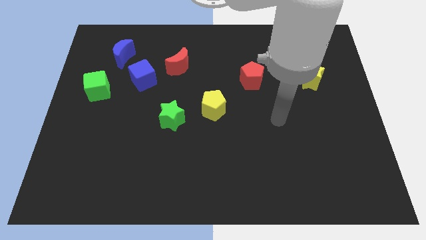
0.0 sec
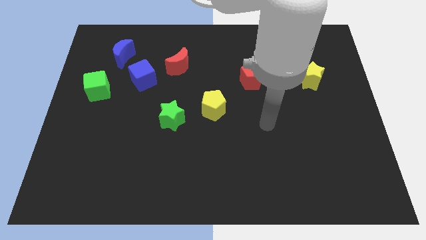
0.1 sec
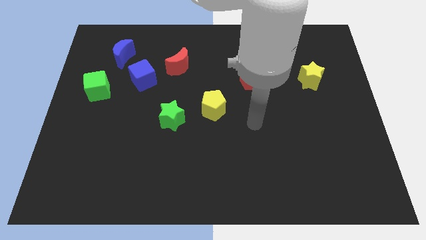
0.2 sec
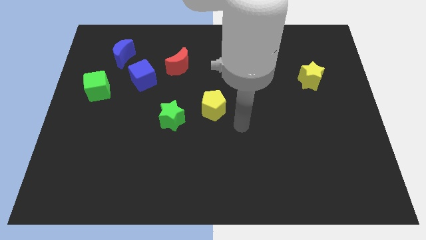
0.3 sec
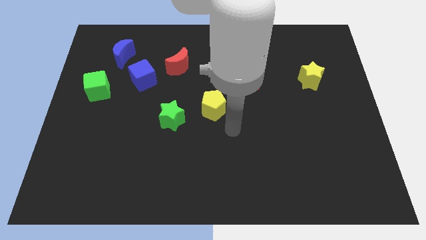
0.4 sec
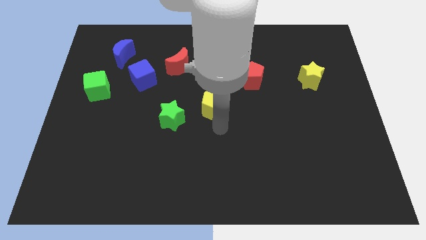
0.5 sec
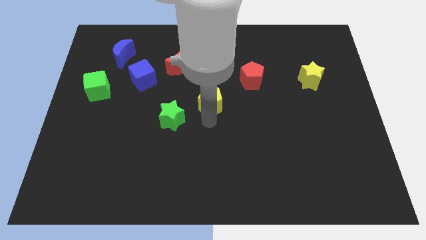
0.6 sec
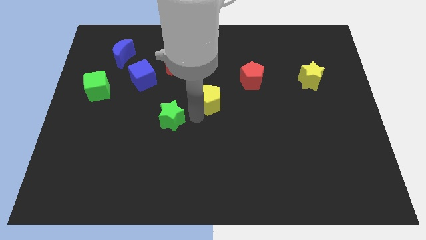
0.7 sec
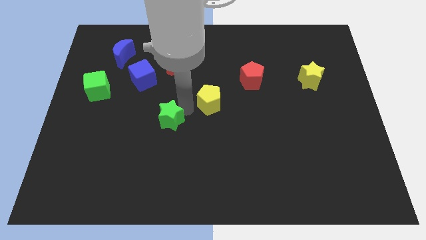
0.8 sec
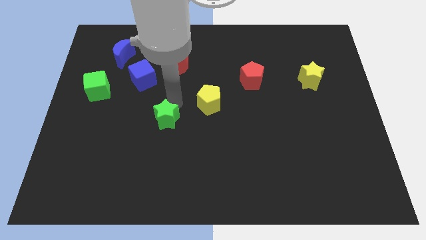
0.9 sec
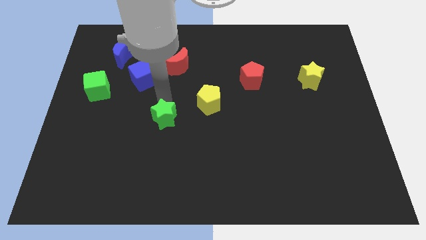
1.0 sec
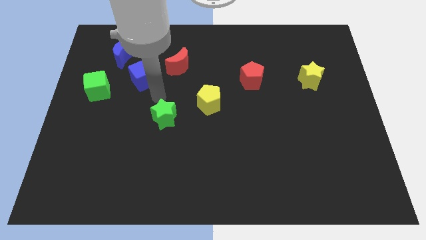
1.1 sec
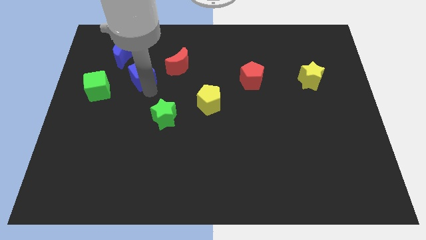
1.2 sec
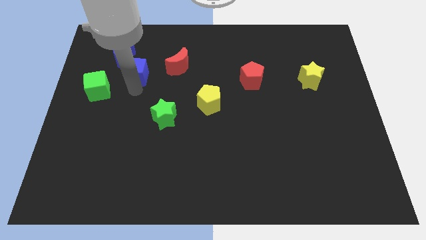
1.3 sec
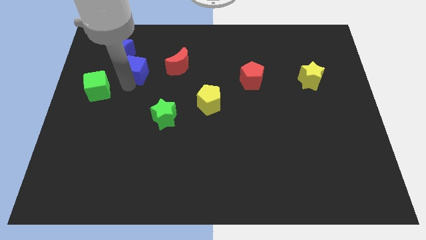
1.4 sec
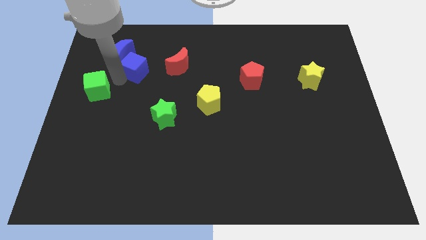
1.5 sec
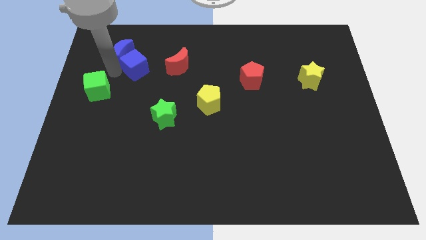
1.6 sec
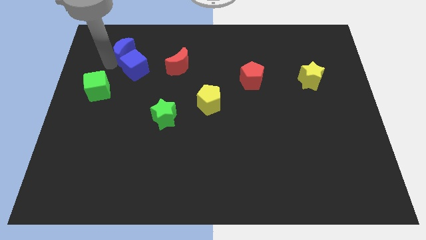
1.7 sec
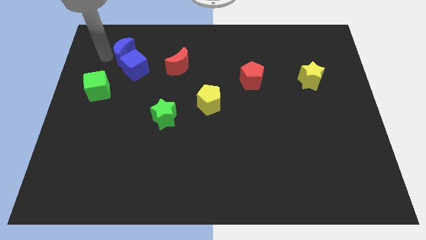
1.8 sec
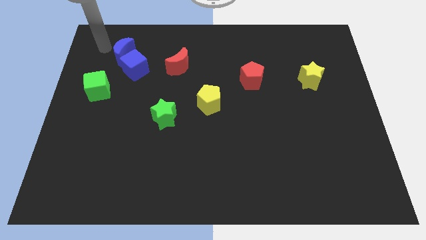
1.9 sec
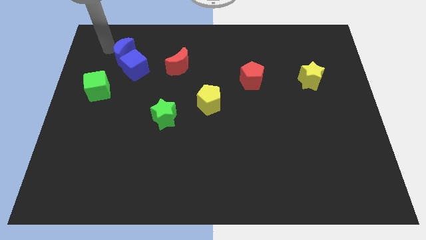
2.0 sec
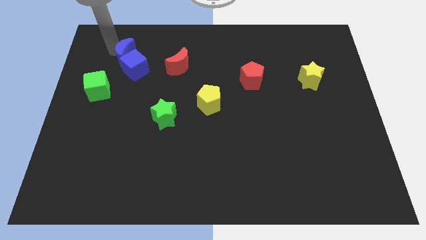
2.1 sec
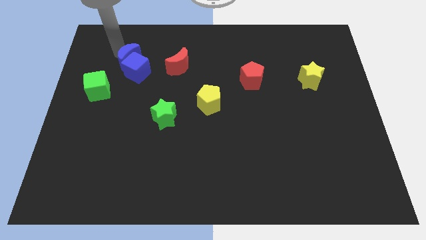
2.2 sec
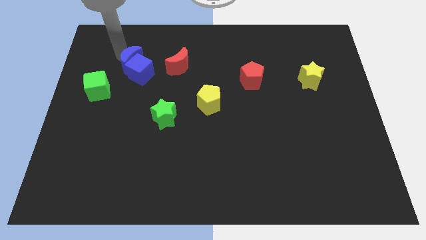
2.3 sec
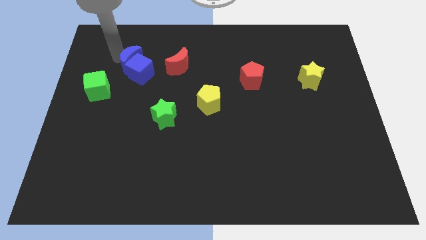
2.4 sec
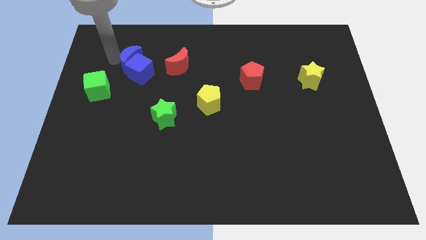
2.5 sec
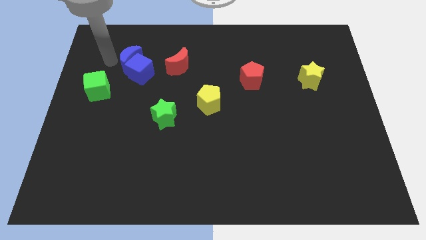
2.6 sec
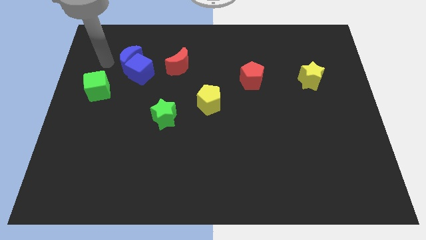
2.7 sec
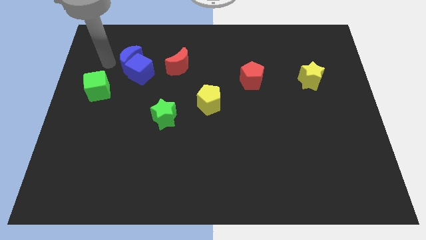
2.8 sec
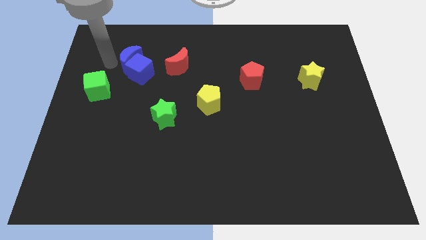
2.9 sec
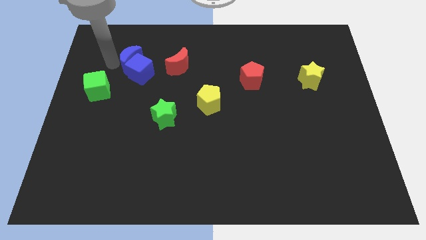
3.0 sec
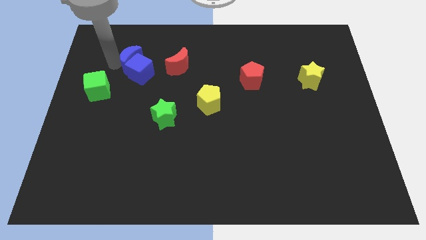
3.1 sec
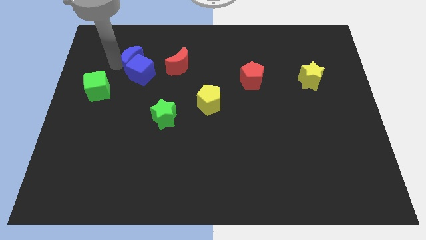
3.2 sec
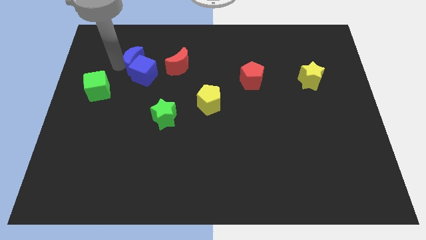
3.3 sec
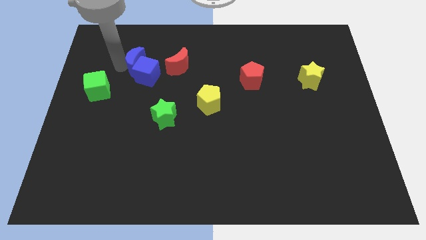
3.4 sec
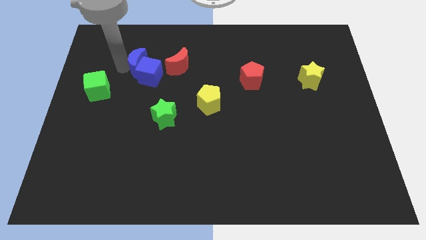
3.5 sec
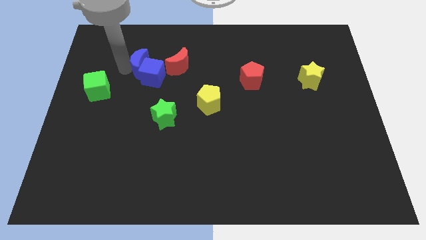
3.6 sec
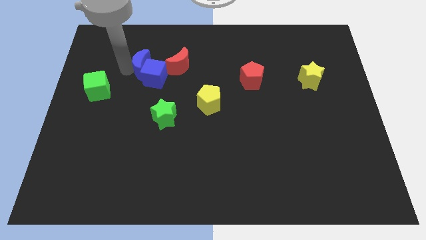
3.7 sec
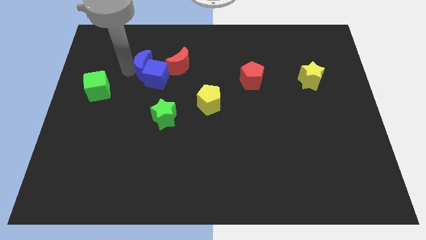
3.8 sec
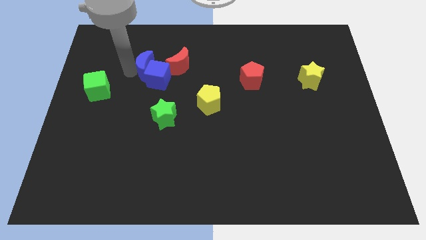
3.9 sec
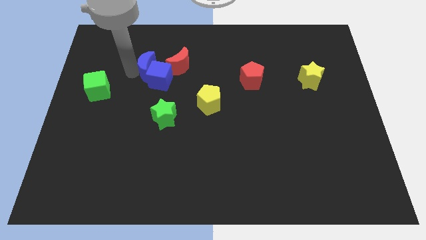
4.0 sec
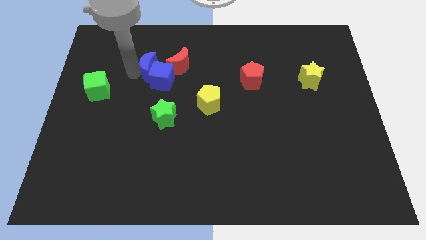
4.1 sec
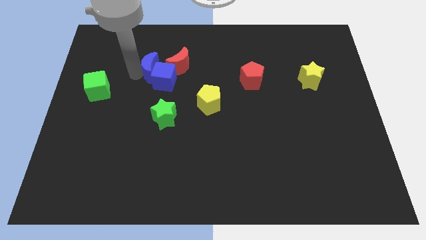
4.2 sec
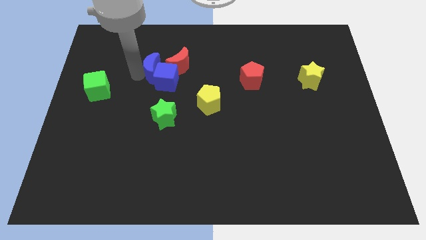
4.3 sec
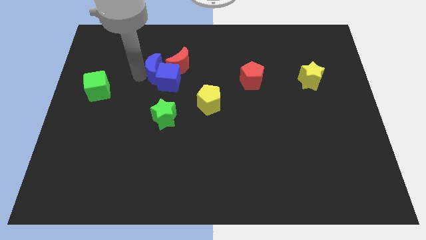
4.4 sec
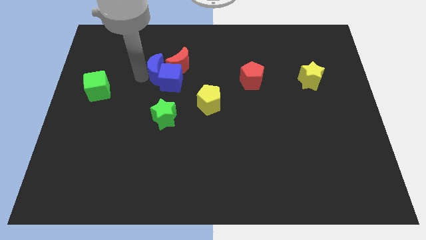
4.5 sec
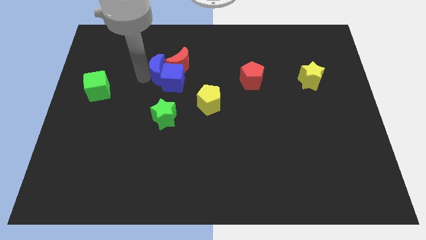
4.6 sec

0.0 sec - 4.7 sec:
move the blue moon next to the red moon

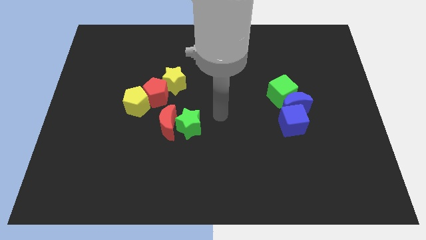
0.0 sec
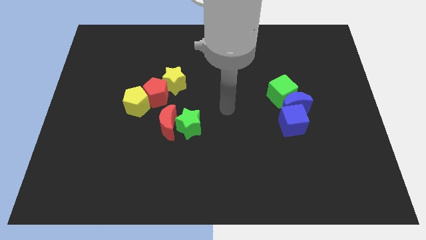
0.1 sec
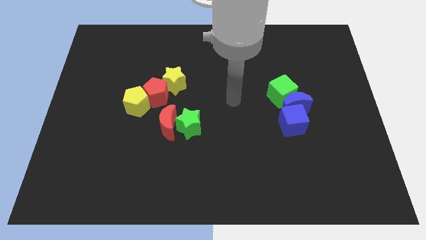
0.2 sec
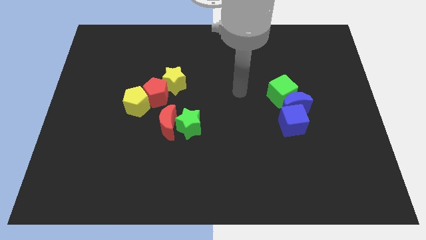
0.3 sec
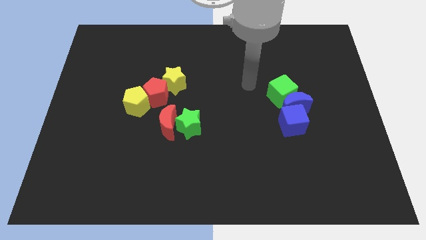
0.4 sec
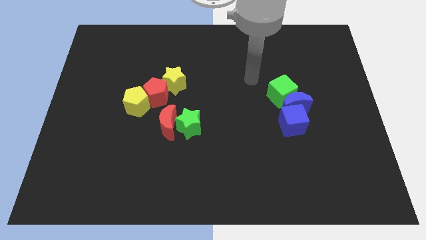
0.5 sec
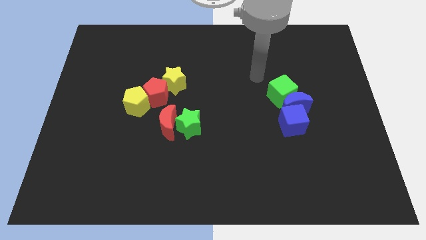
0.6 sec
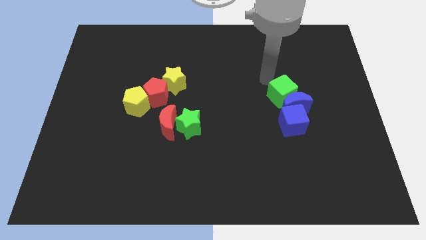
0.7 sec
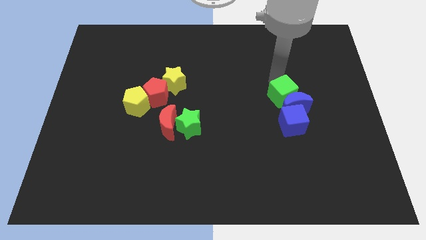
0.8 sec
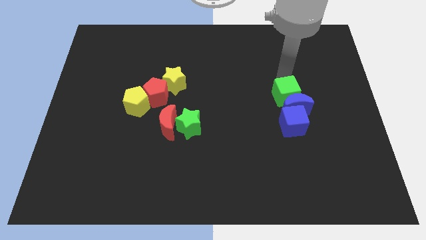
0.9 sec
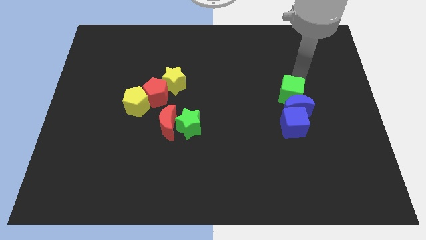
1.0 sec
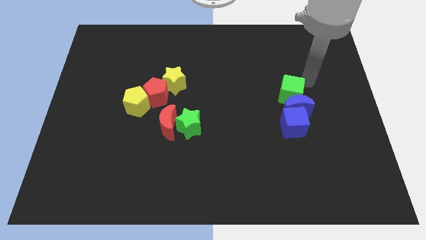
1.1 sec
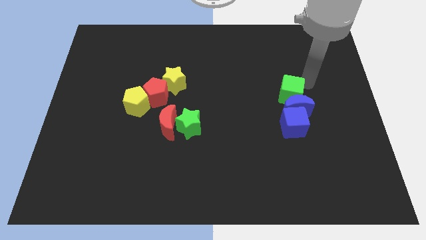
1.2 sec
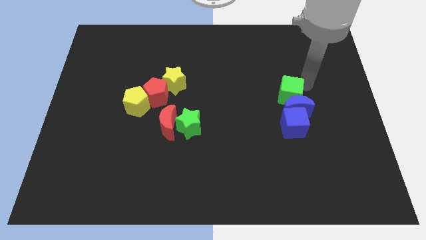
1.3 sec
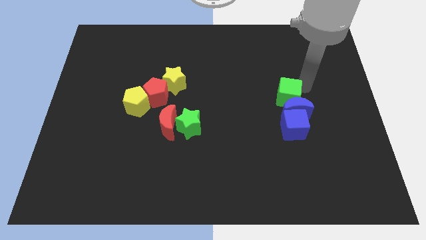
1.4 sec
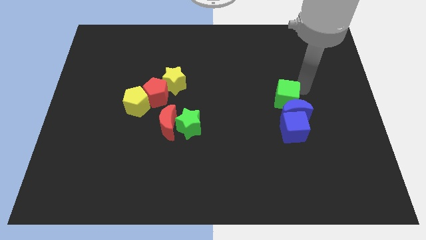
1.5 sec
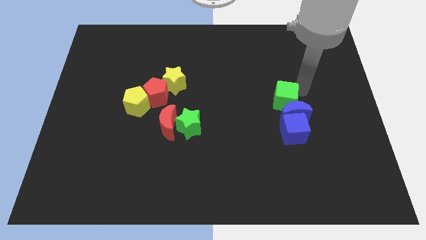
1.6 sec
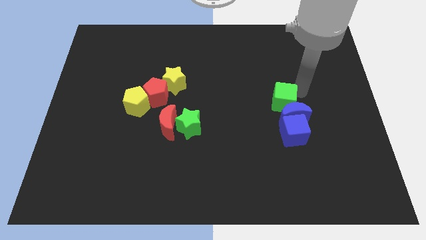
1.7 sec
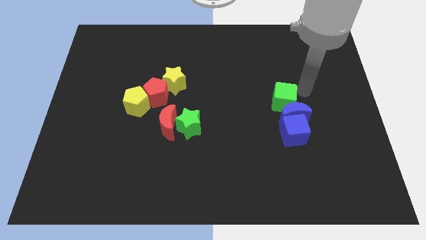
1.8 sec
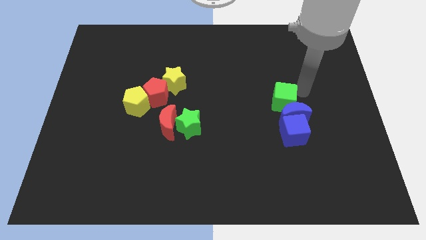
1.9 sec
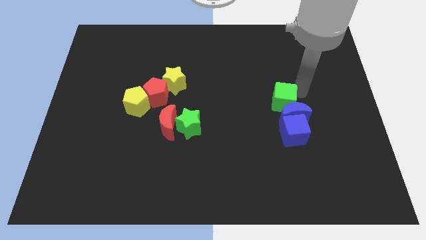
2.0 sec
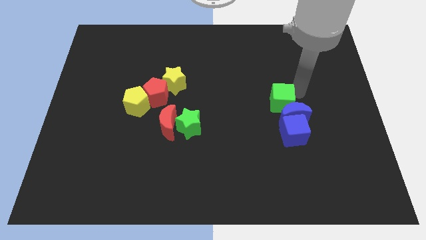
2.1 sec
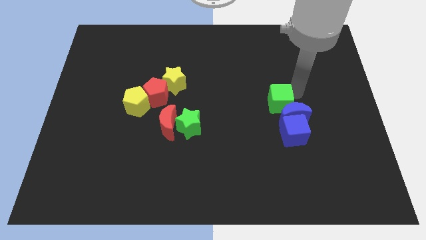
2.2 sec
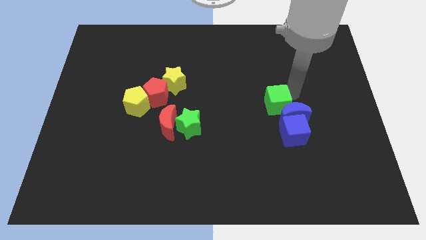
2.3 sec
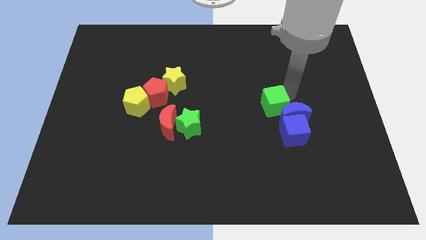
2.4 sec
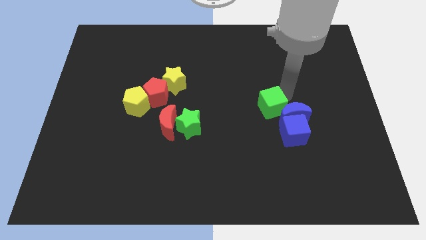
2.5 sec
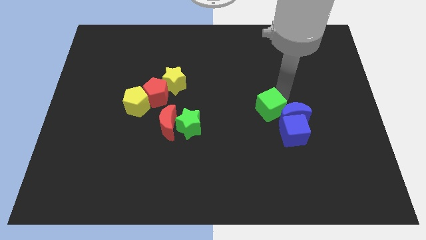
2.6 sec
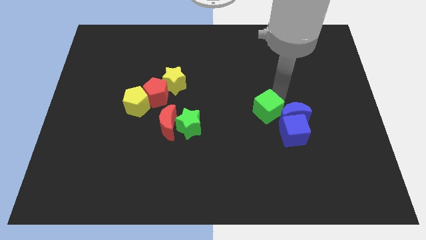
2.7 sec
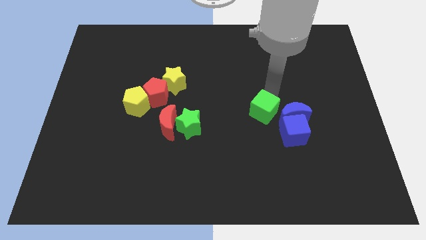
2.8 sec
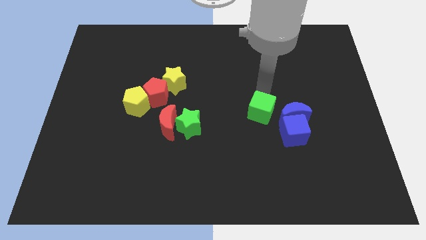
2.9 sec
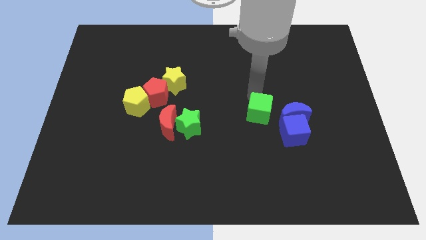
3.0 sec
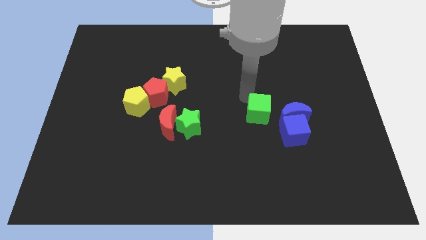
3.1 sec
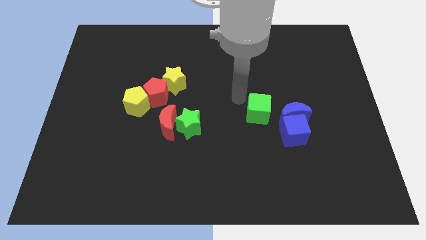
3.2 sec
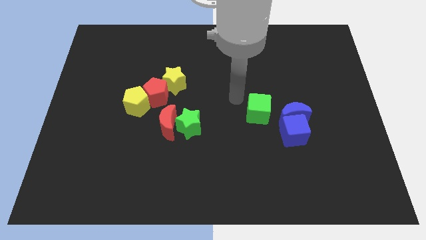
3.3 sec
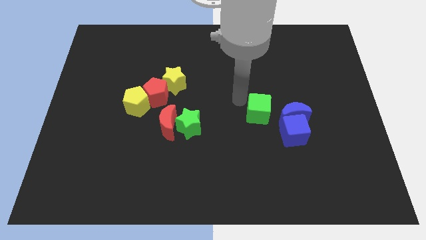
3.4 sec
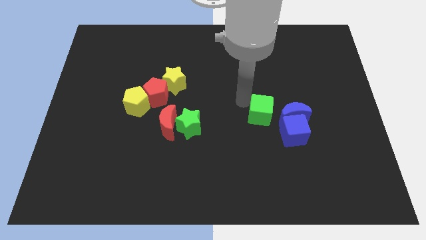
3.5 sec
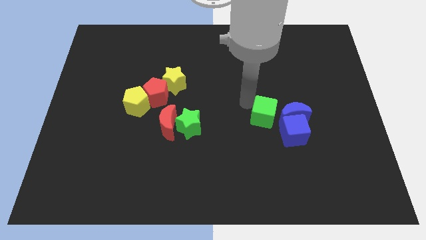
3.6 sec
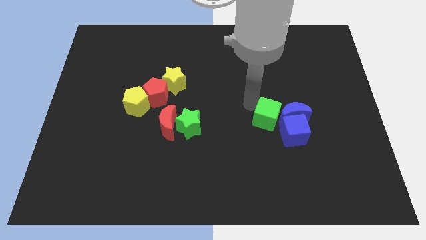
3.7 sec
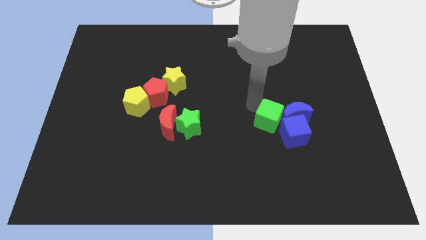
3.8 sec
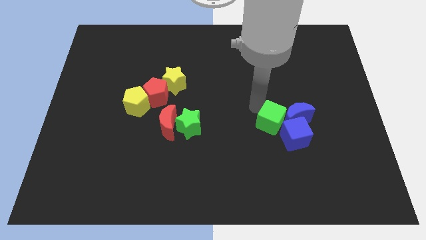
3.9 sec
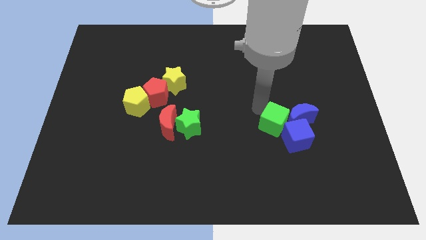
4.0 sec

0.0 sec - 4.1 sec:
put the green cube close to the blue cube
